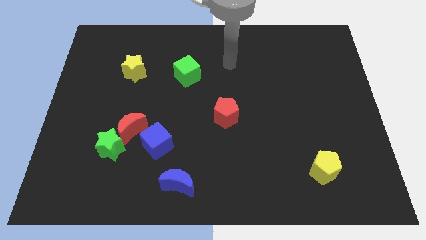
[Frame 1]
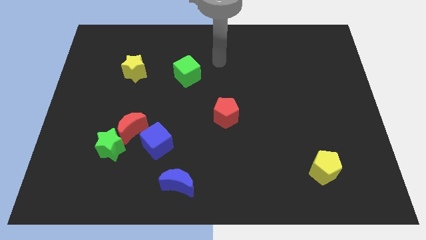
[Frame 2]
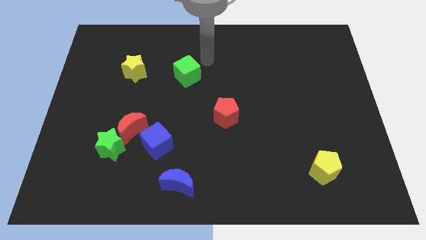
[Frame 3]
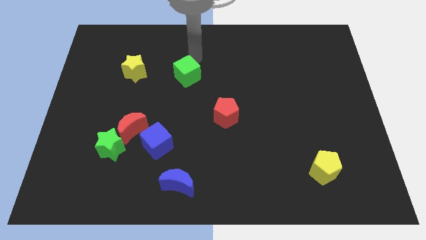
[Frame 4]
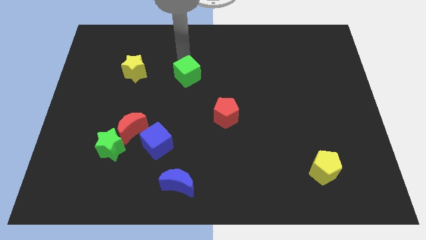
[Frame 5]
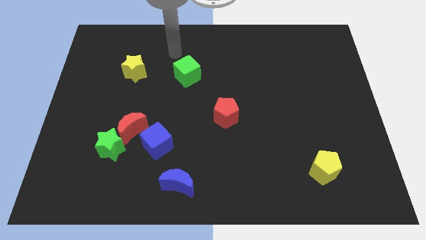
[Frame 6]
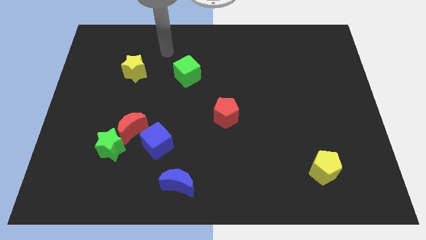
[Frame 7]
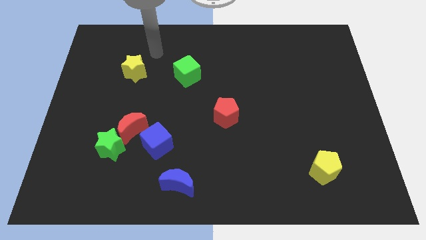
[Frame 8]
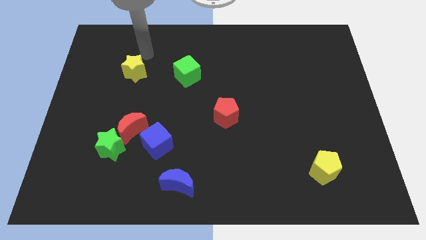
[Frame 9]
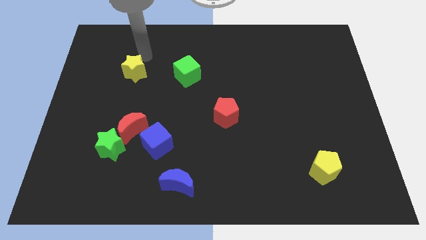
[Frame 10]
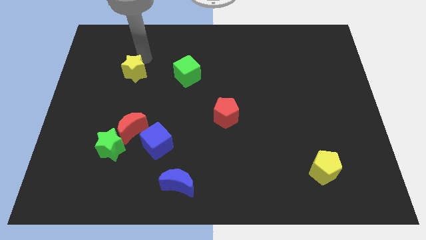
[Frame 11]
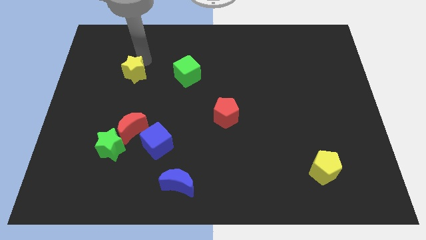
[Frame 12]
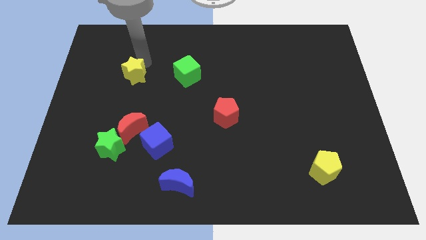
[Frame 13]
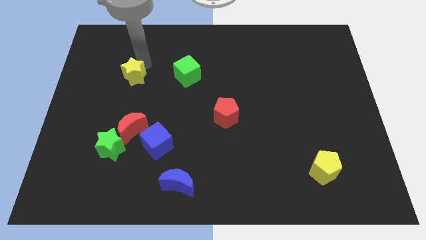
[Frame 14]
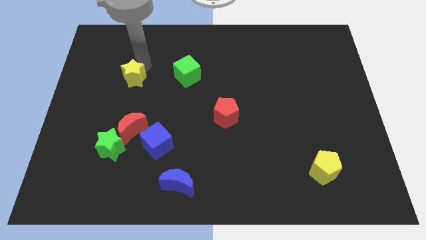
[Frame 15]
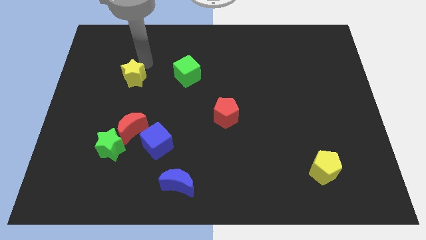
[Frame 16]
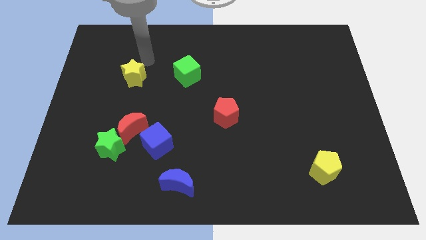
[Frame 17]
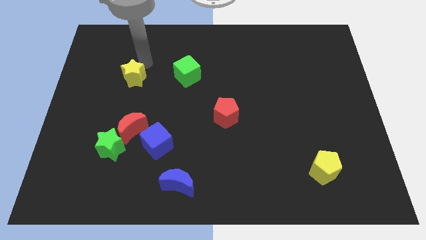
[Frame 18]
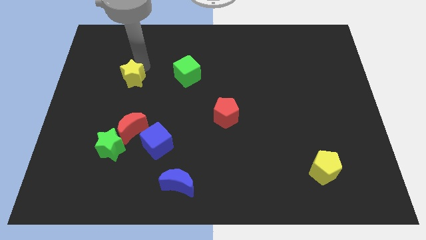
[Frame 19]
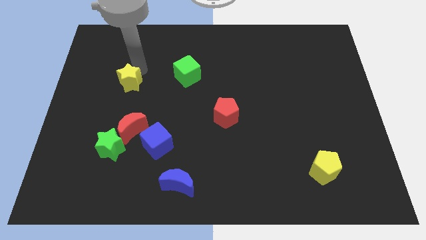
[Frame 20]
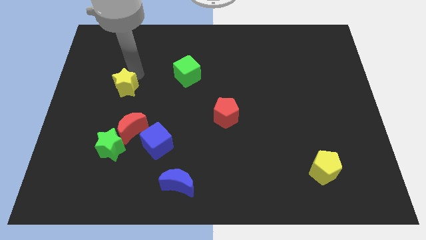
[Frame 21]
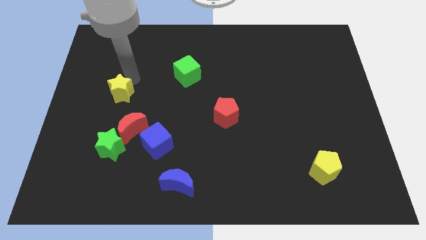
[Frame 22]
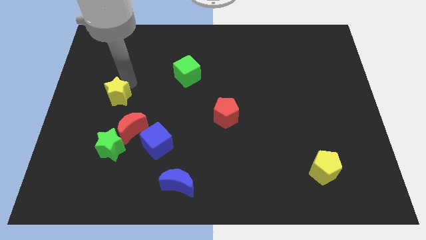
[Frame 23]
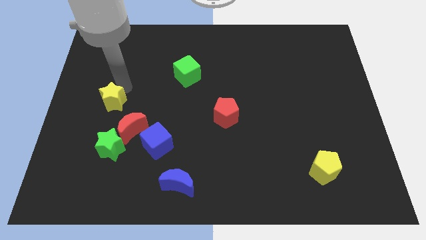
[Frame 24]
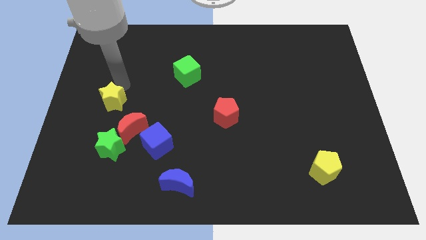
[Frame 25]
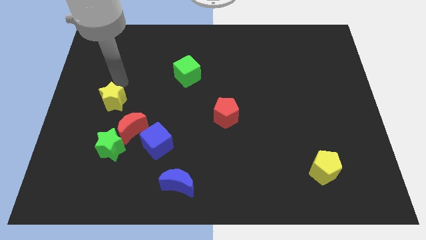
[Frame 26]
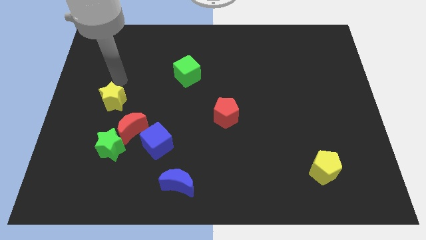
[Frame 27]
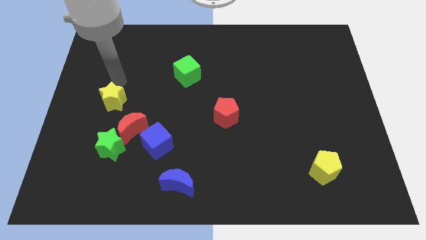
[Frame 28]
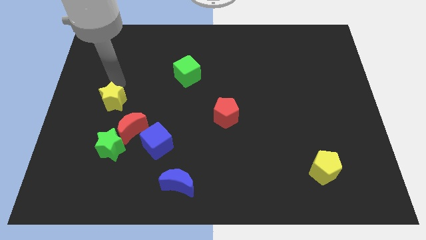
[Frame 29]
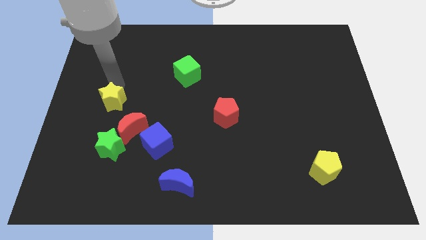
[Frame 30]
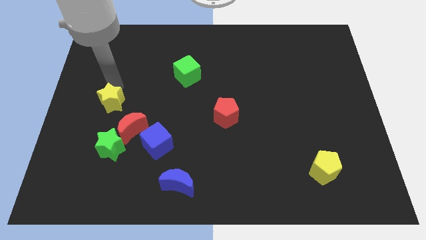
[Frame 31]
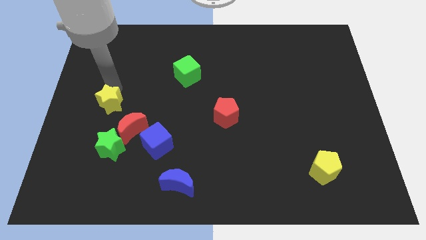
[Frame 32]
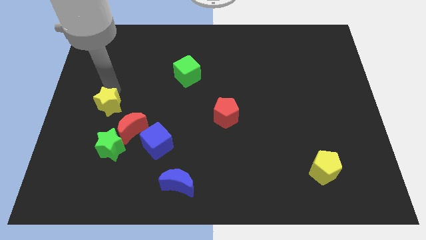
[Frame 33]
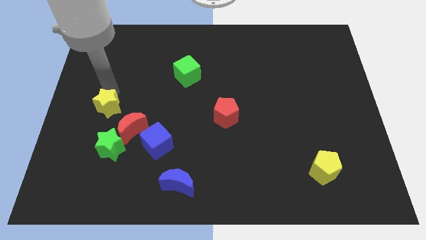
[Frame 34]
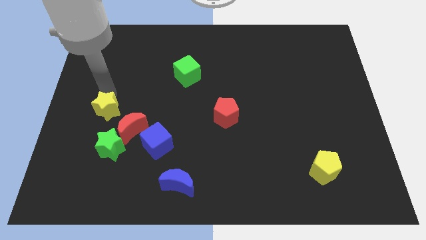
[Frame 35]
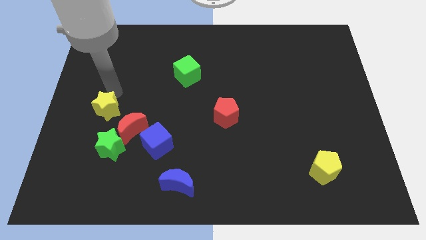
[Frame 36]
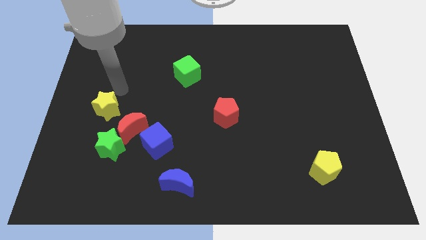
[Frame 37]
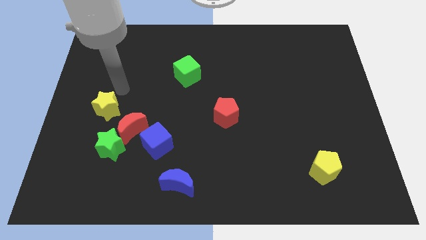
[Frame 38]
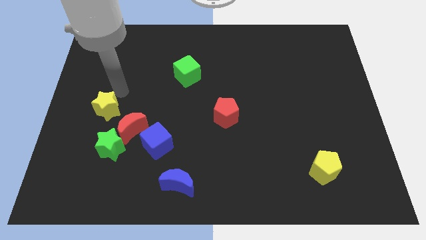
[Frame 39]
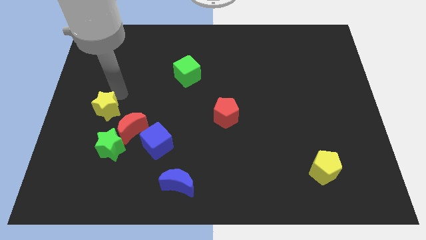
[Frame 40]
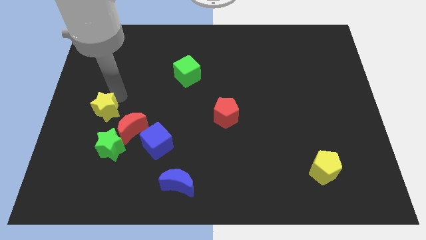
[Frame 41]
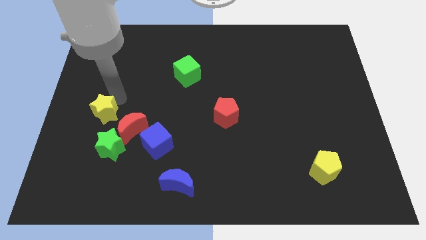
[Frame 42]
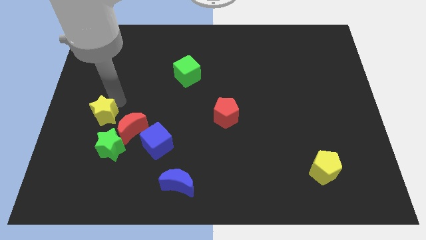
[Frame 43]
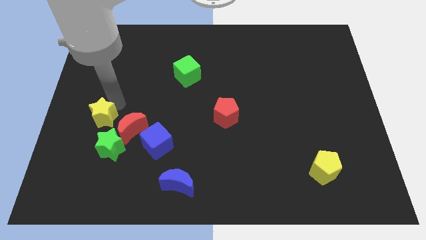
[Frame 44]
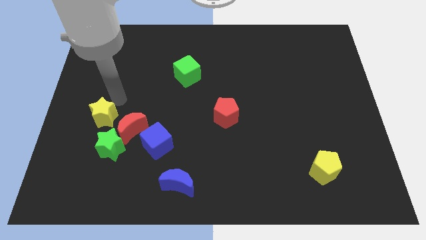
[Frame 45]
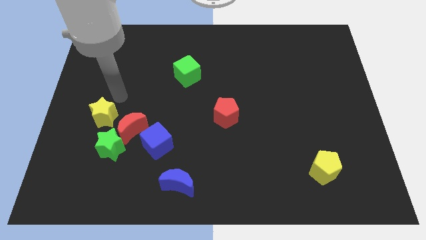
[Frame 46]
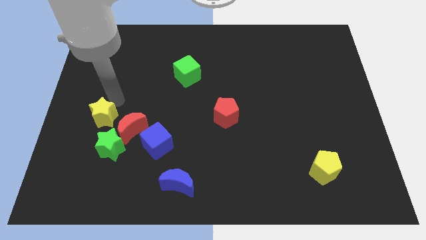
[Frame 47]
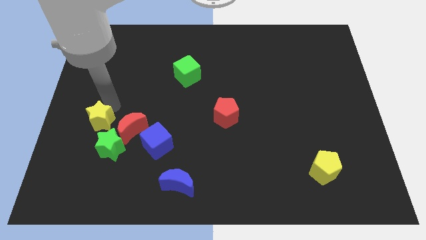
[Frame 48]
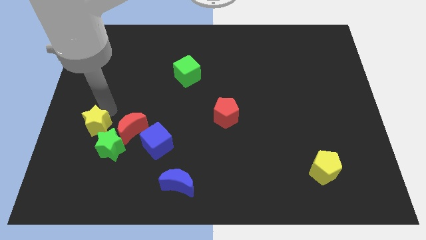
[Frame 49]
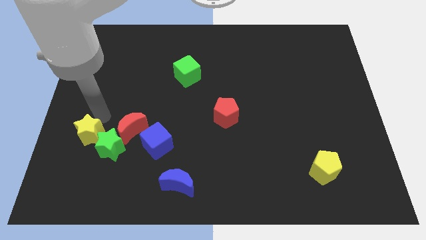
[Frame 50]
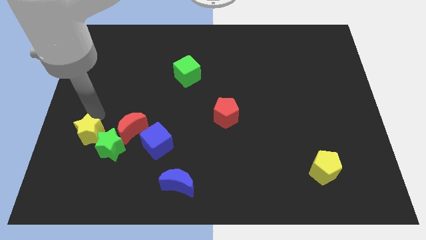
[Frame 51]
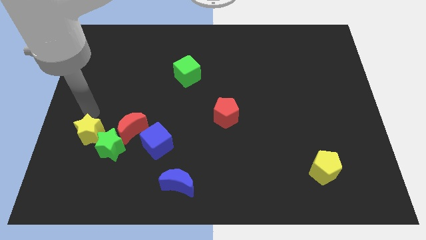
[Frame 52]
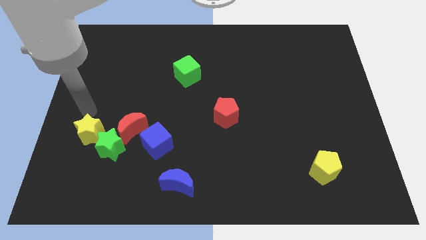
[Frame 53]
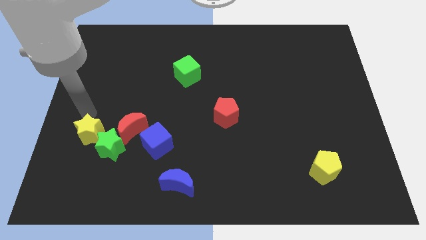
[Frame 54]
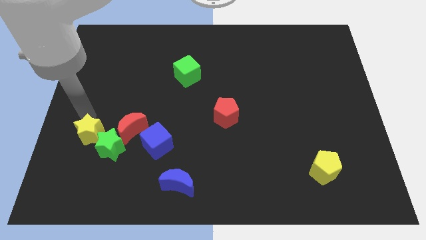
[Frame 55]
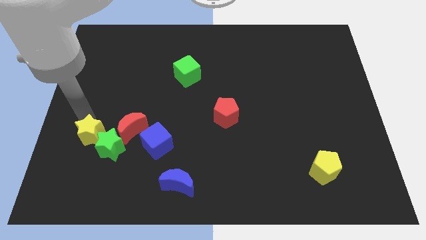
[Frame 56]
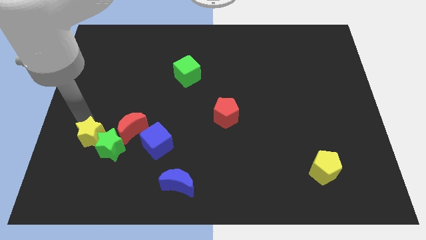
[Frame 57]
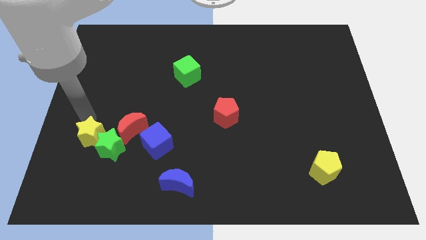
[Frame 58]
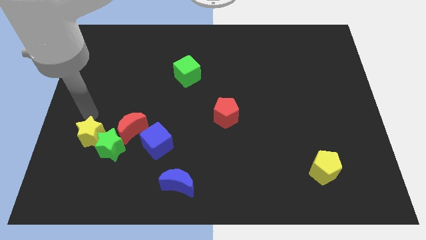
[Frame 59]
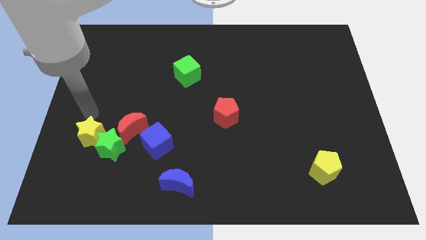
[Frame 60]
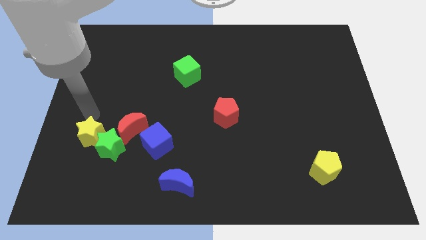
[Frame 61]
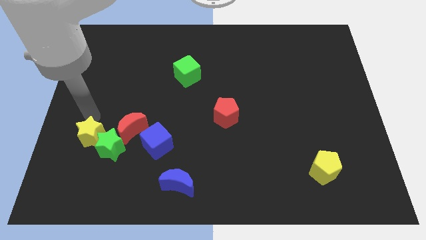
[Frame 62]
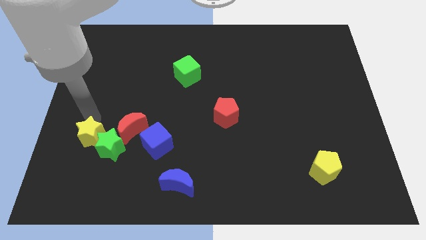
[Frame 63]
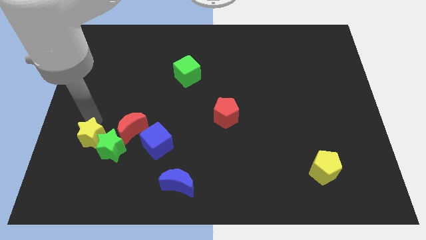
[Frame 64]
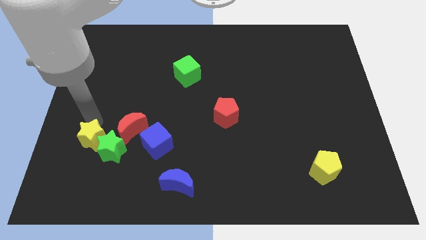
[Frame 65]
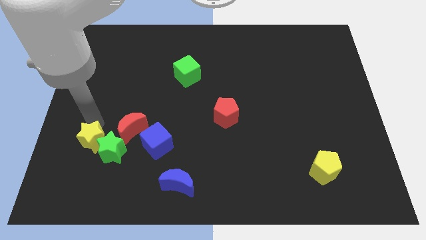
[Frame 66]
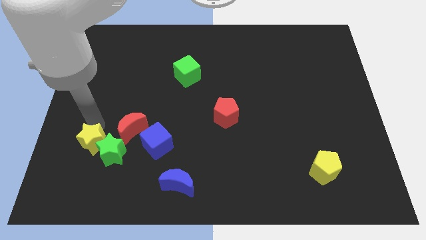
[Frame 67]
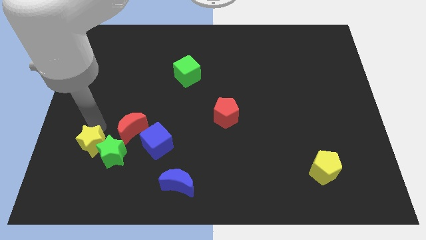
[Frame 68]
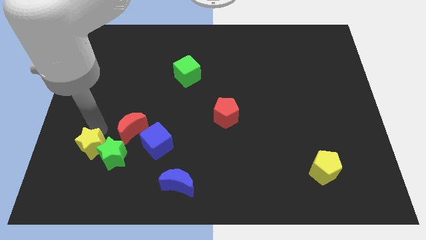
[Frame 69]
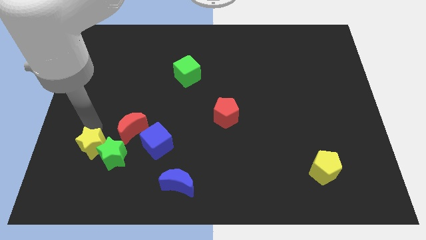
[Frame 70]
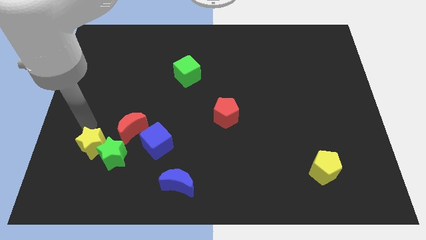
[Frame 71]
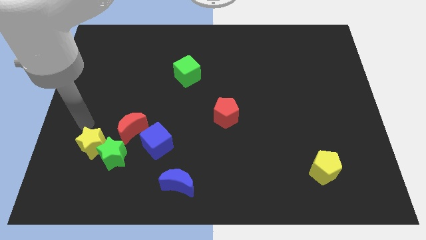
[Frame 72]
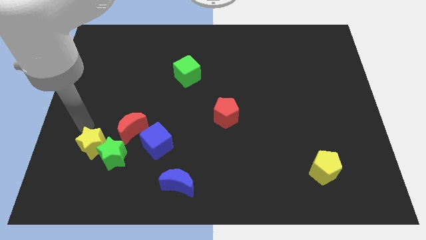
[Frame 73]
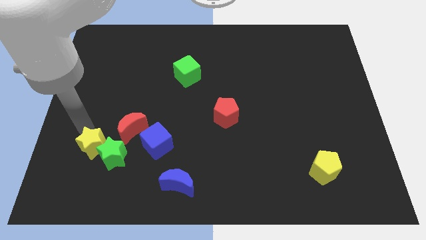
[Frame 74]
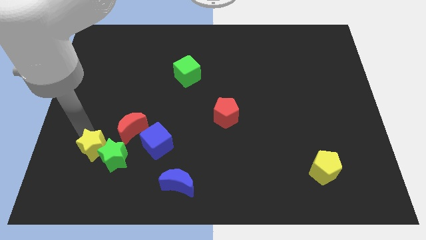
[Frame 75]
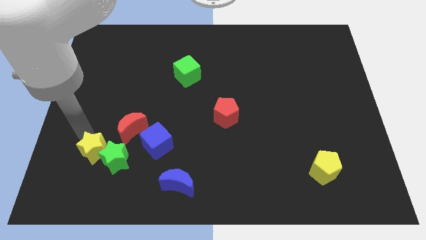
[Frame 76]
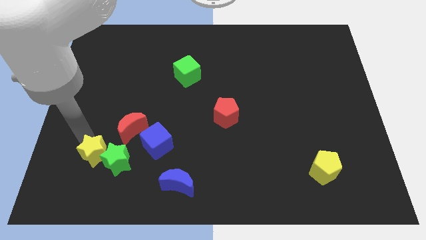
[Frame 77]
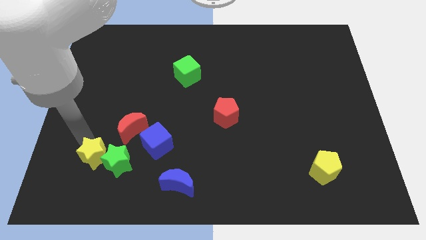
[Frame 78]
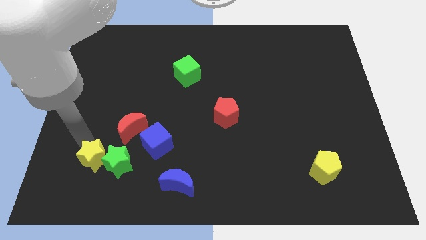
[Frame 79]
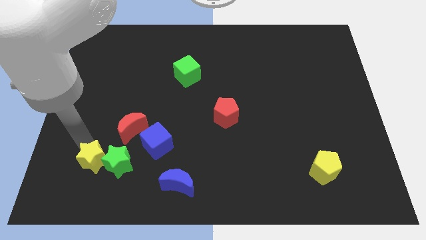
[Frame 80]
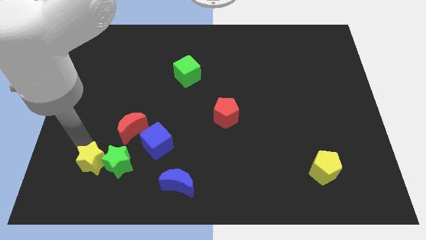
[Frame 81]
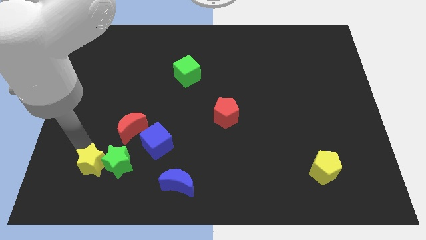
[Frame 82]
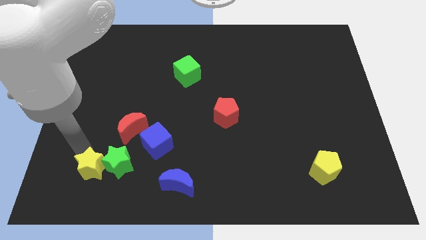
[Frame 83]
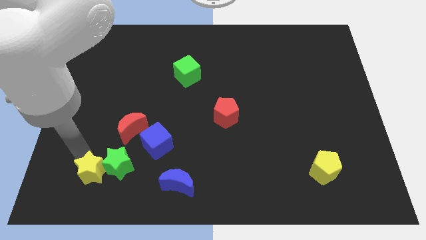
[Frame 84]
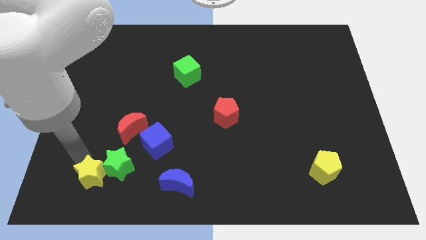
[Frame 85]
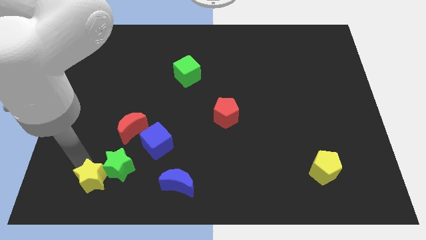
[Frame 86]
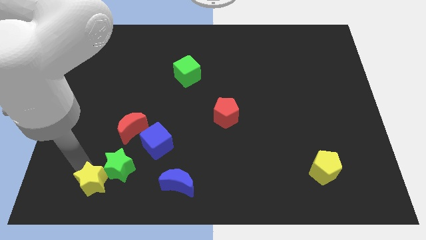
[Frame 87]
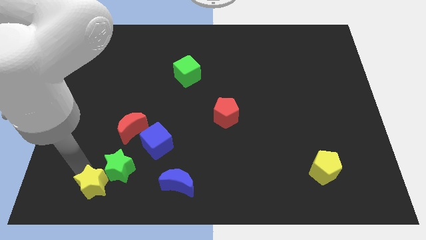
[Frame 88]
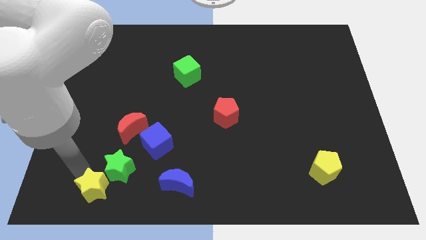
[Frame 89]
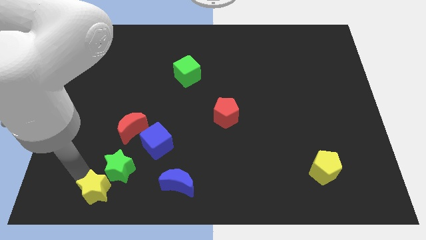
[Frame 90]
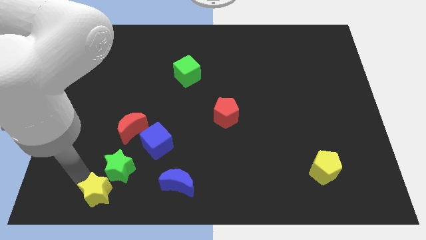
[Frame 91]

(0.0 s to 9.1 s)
slide the yellow star to the left side of the blue moon
